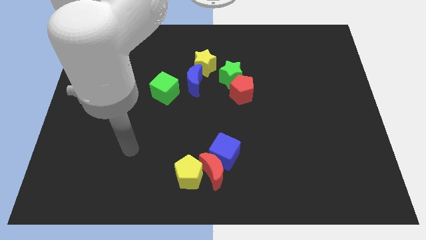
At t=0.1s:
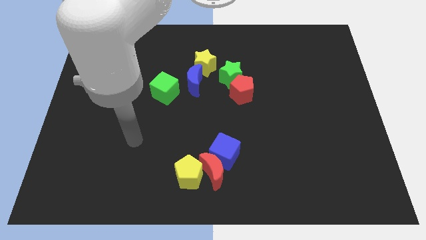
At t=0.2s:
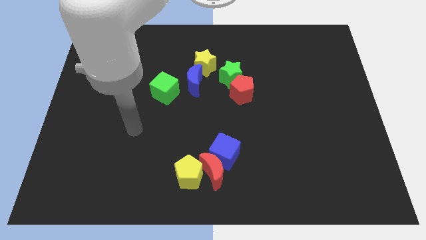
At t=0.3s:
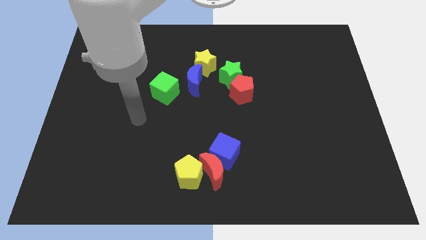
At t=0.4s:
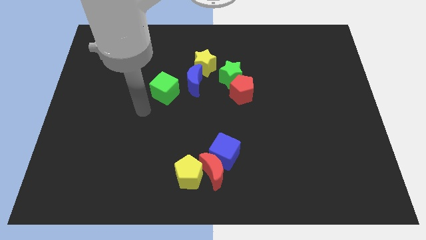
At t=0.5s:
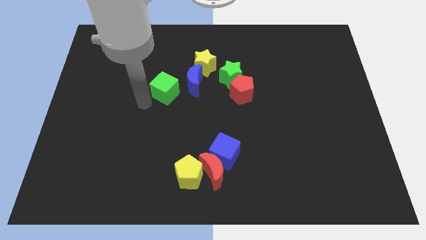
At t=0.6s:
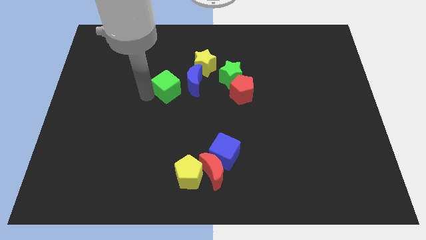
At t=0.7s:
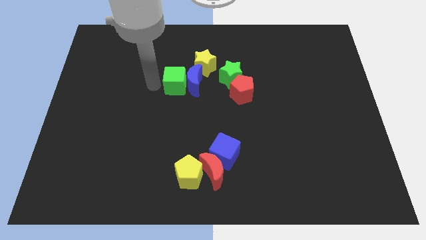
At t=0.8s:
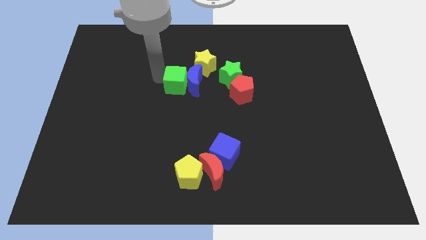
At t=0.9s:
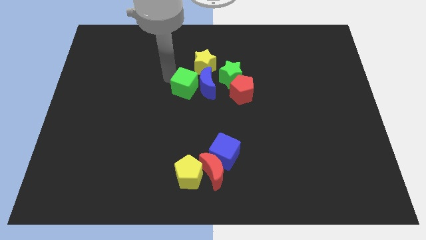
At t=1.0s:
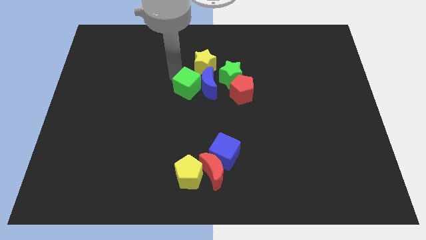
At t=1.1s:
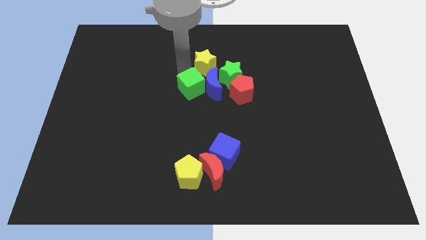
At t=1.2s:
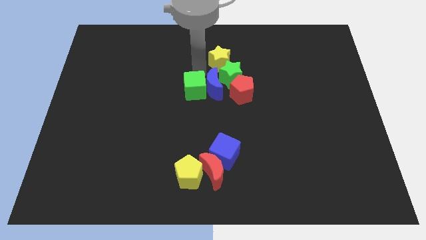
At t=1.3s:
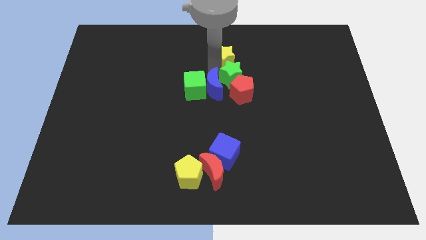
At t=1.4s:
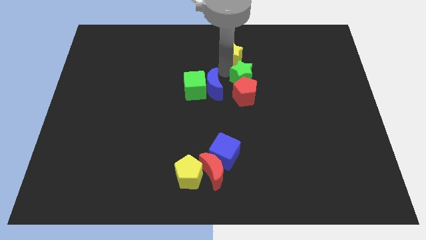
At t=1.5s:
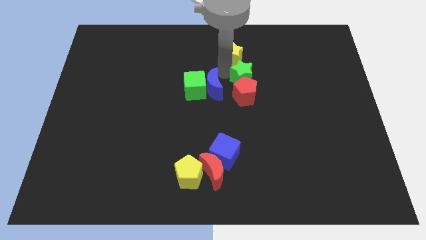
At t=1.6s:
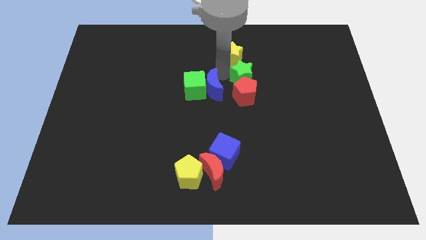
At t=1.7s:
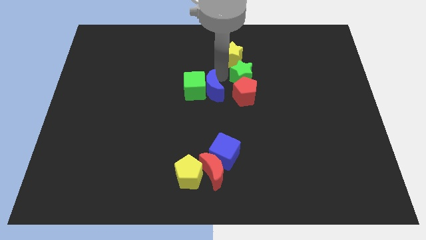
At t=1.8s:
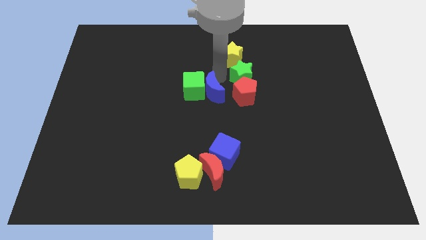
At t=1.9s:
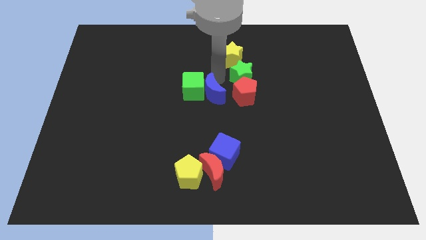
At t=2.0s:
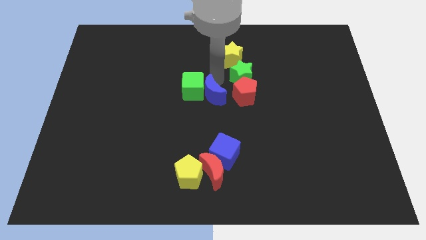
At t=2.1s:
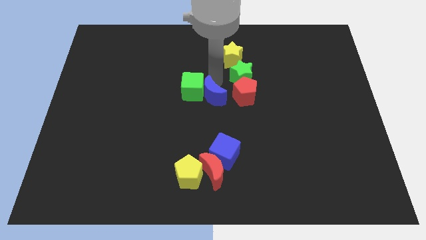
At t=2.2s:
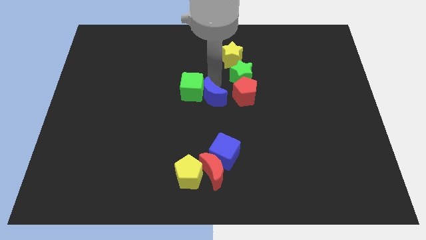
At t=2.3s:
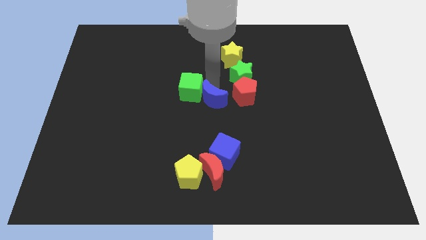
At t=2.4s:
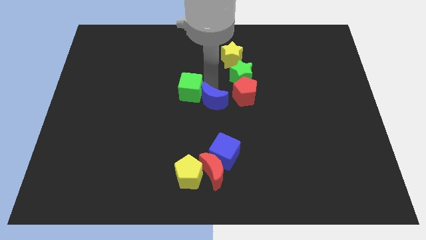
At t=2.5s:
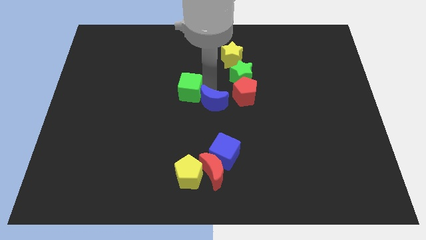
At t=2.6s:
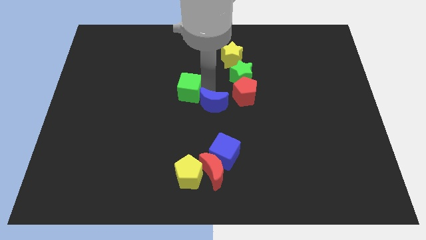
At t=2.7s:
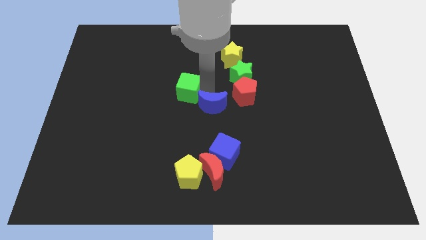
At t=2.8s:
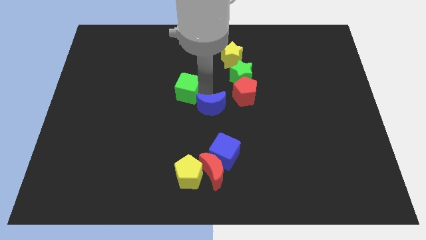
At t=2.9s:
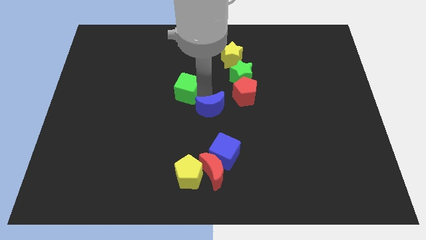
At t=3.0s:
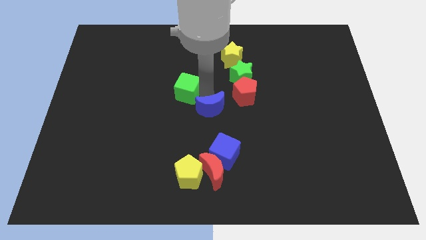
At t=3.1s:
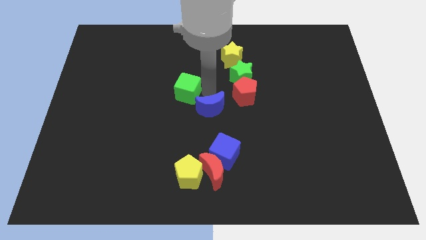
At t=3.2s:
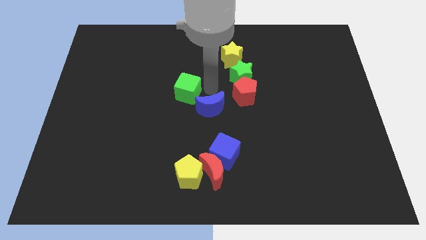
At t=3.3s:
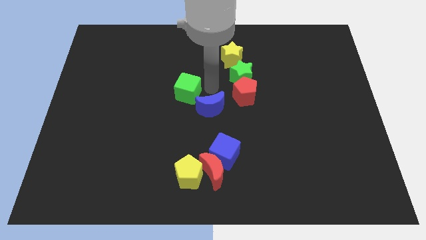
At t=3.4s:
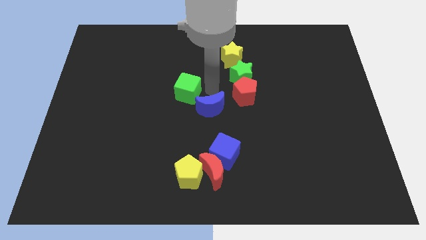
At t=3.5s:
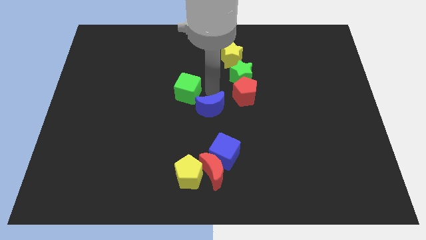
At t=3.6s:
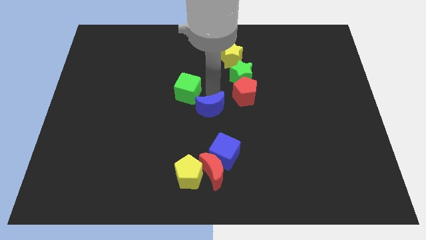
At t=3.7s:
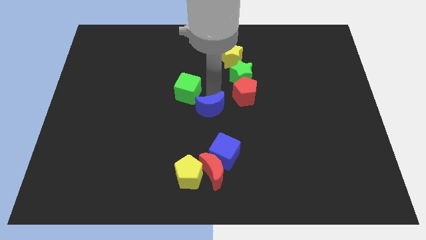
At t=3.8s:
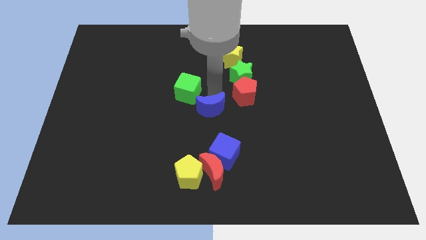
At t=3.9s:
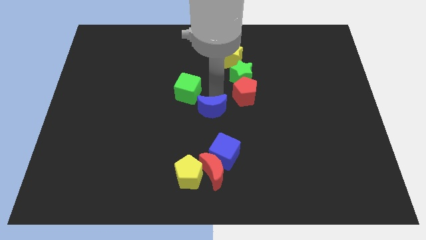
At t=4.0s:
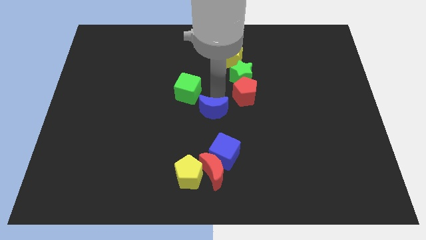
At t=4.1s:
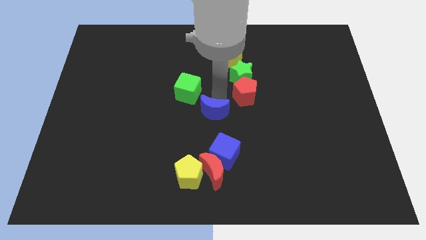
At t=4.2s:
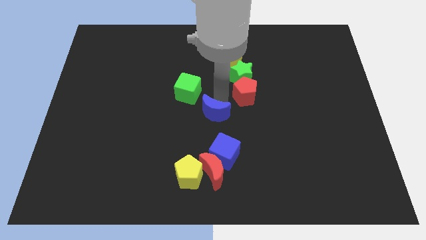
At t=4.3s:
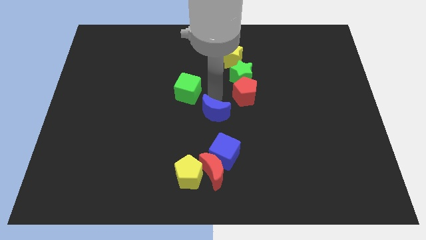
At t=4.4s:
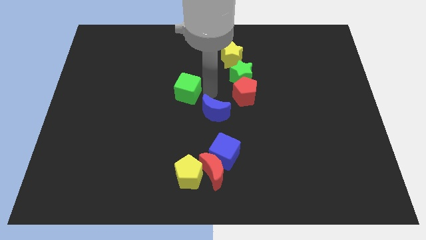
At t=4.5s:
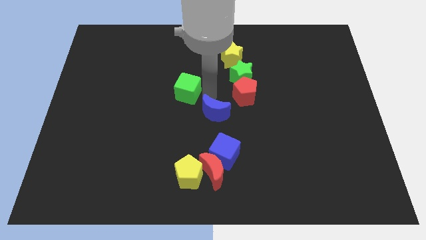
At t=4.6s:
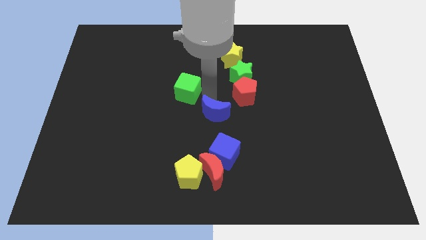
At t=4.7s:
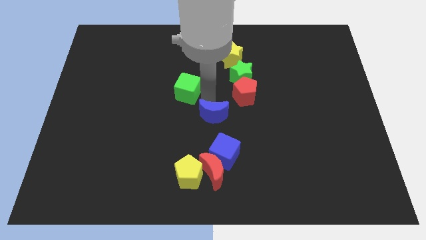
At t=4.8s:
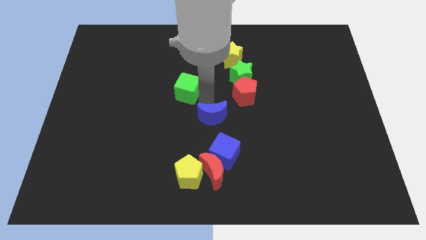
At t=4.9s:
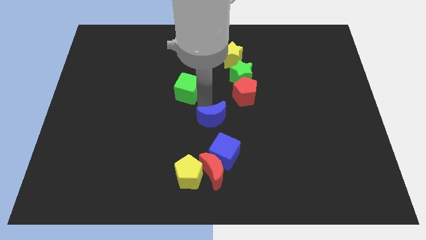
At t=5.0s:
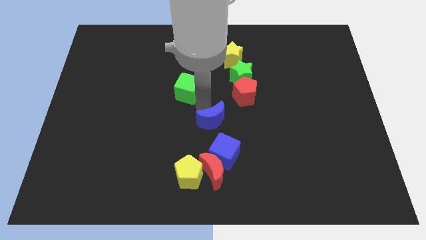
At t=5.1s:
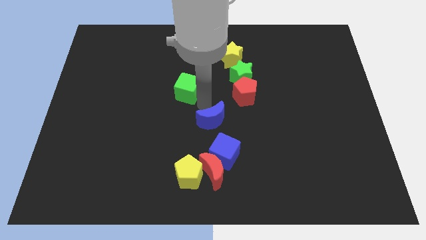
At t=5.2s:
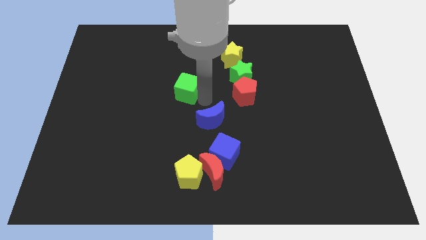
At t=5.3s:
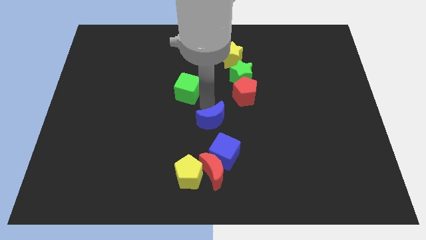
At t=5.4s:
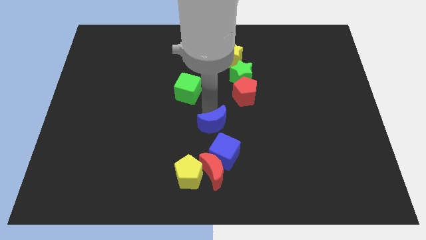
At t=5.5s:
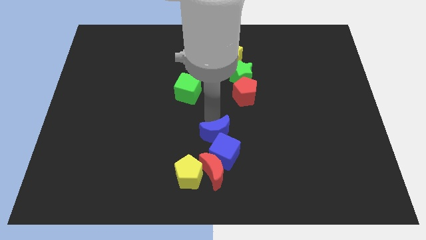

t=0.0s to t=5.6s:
move the blue moon towards the blue cube

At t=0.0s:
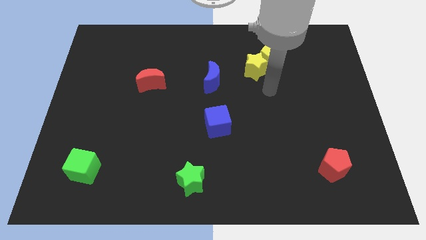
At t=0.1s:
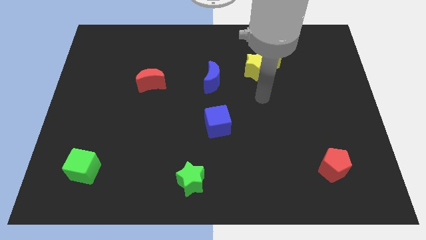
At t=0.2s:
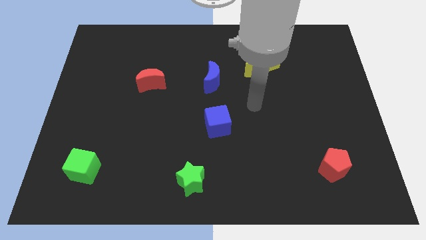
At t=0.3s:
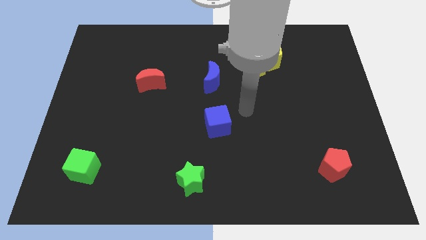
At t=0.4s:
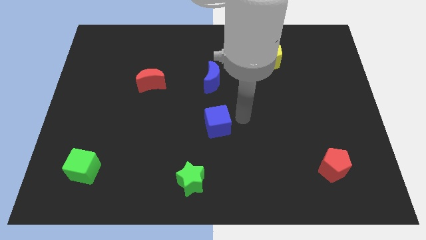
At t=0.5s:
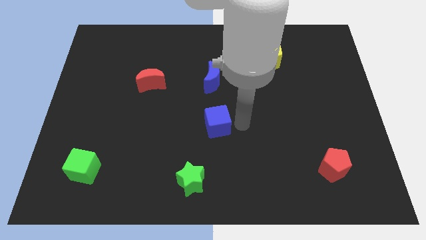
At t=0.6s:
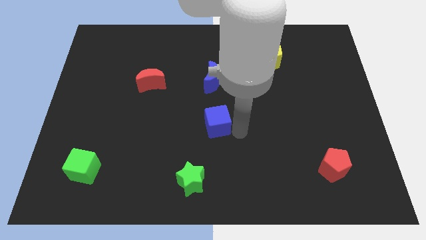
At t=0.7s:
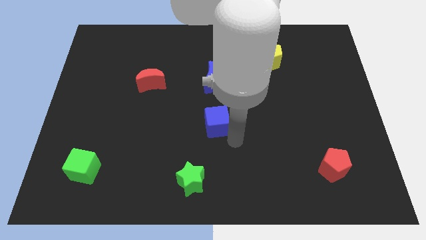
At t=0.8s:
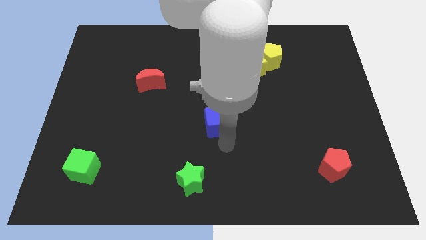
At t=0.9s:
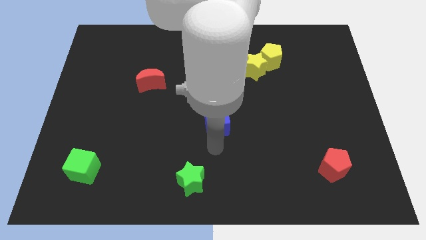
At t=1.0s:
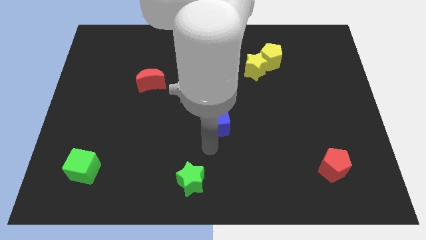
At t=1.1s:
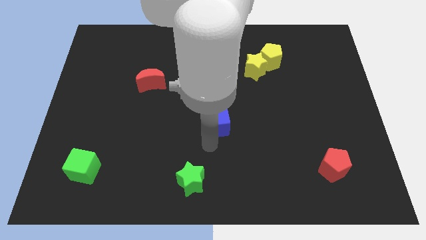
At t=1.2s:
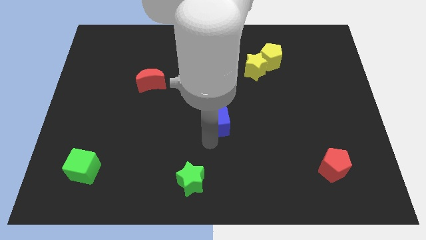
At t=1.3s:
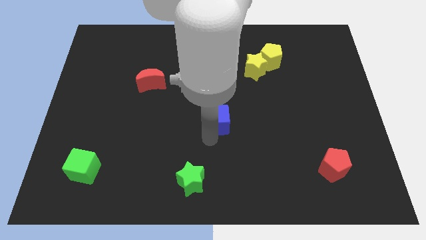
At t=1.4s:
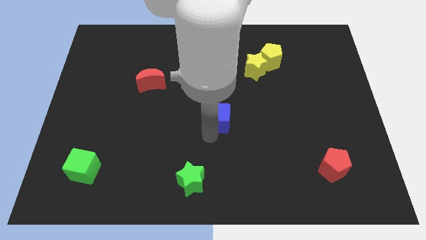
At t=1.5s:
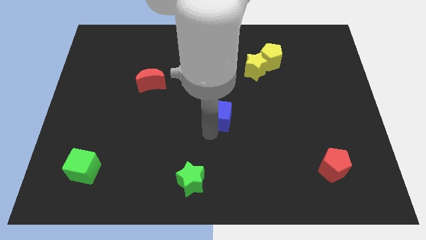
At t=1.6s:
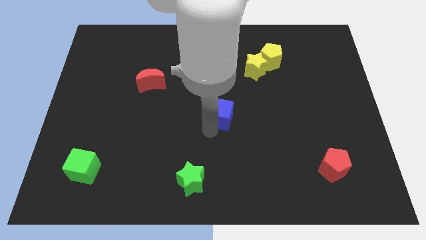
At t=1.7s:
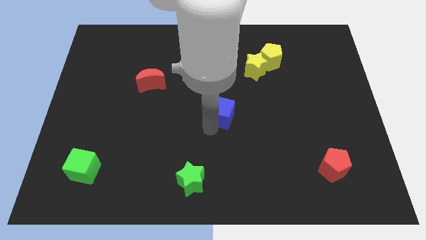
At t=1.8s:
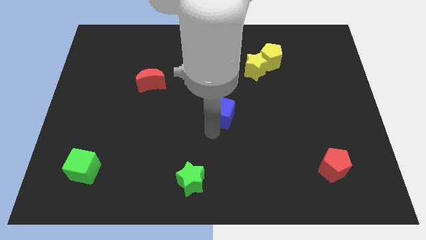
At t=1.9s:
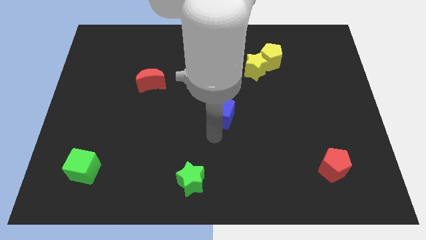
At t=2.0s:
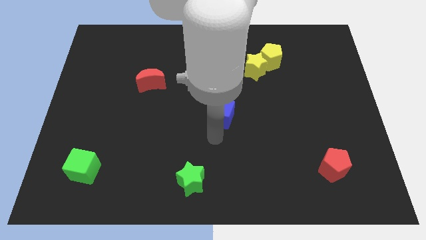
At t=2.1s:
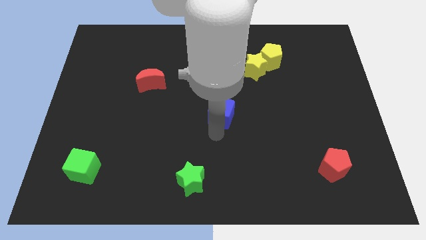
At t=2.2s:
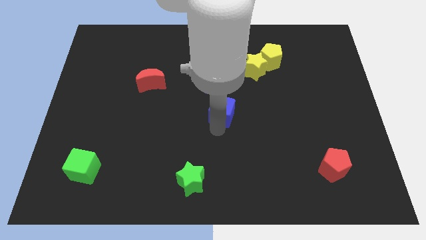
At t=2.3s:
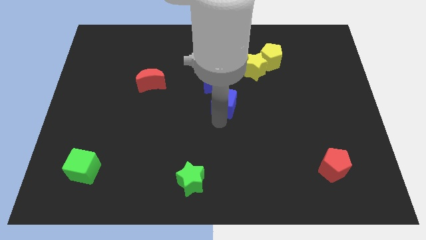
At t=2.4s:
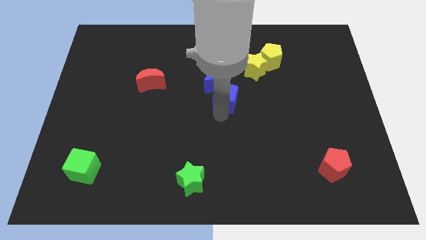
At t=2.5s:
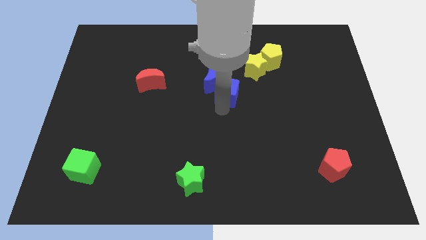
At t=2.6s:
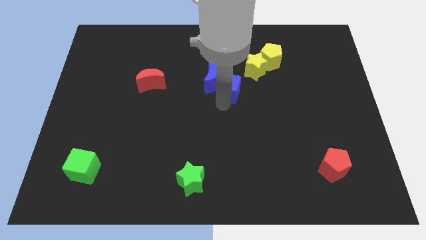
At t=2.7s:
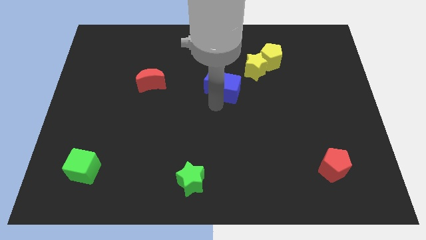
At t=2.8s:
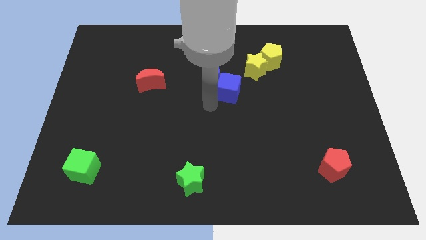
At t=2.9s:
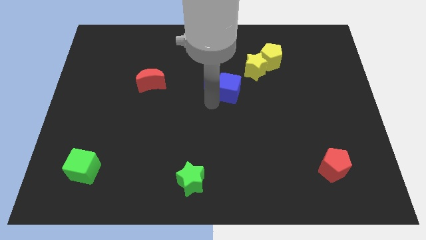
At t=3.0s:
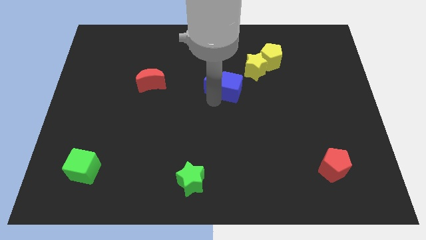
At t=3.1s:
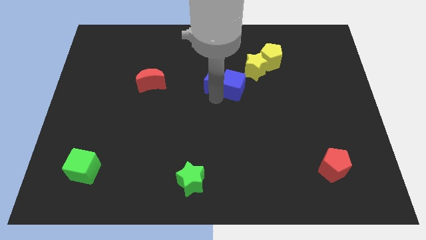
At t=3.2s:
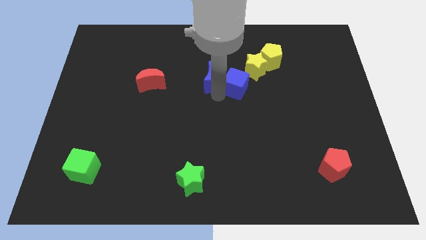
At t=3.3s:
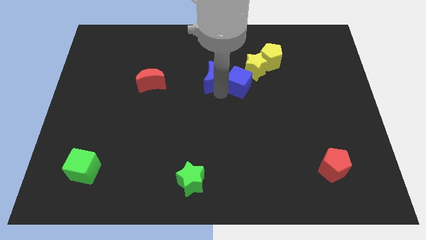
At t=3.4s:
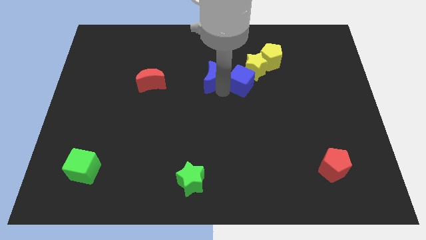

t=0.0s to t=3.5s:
slide the blue cube to the yellow star
